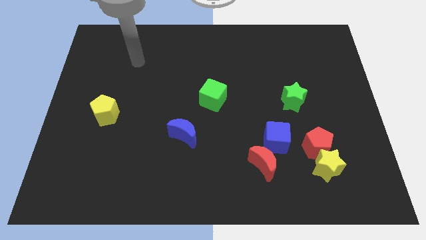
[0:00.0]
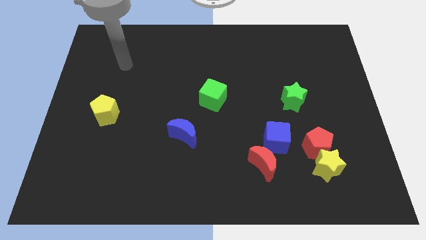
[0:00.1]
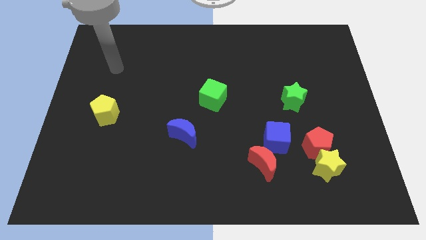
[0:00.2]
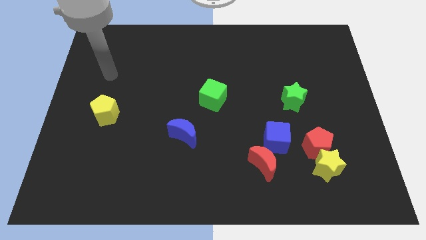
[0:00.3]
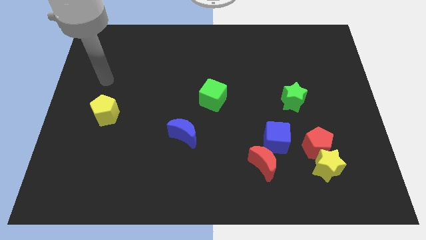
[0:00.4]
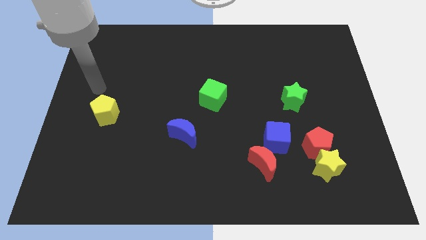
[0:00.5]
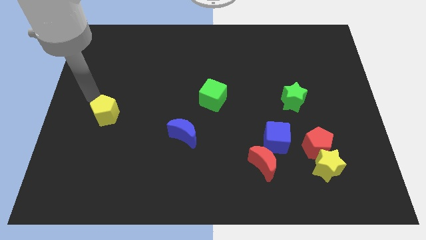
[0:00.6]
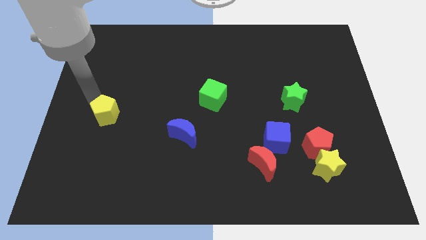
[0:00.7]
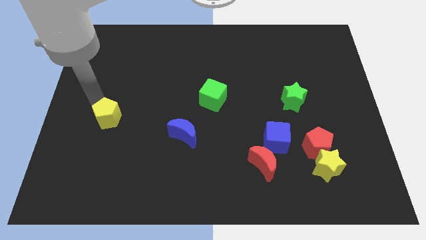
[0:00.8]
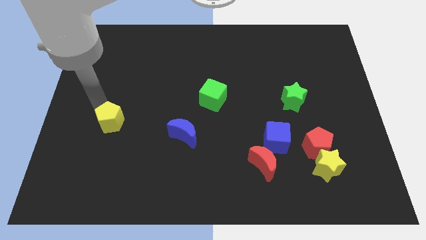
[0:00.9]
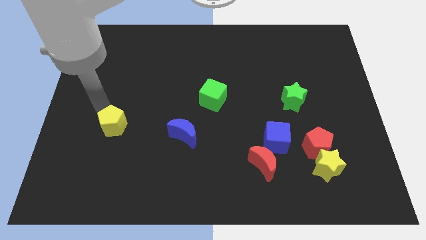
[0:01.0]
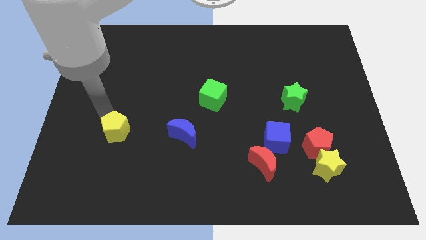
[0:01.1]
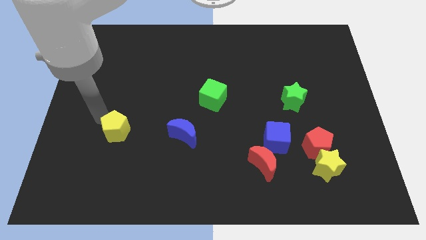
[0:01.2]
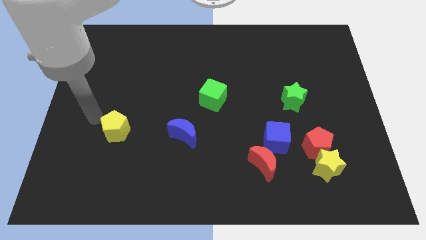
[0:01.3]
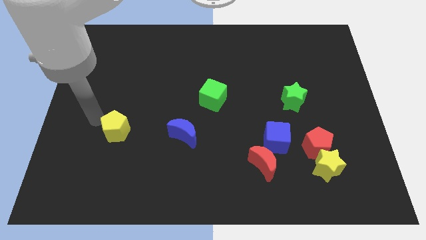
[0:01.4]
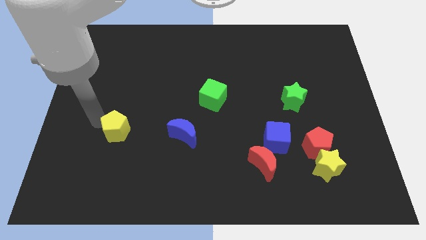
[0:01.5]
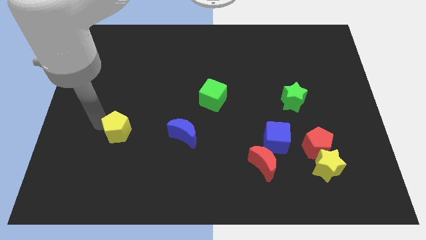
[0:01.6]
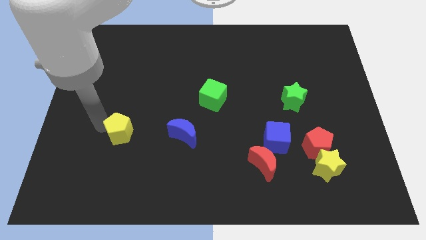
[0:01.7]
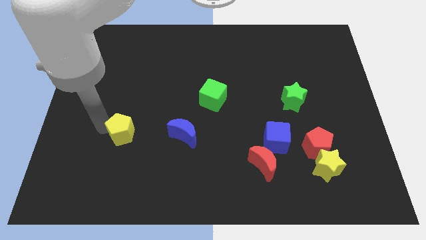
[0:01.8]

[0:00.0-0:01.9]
push the yellow pentagon downwards and to the right slightly

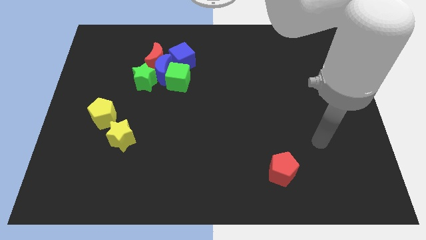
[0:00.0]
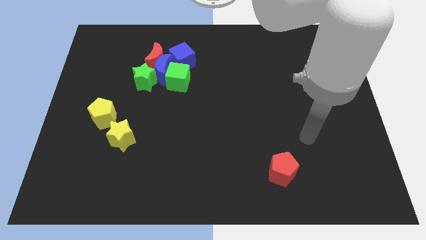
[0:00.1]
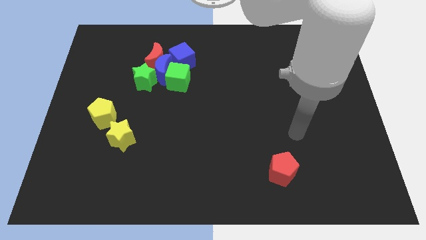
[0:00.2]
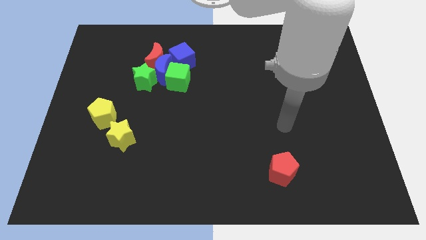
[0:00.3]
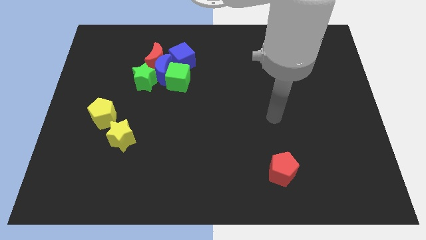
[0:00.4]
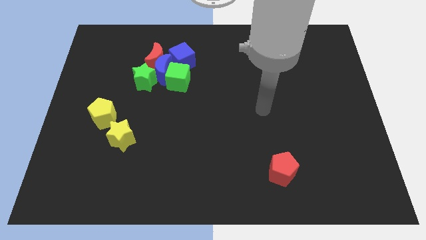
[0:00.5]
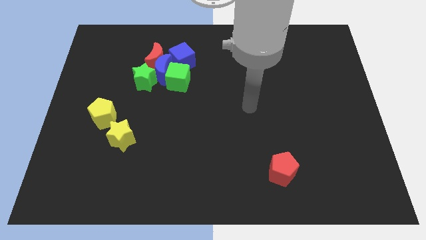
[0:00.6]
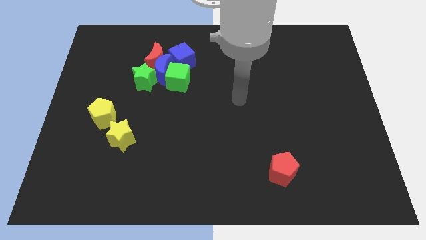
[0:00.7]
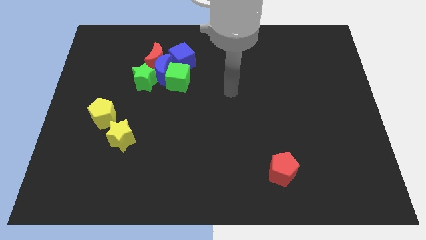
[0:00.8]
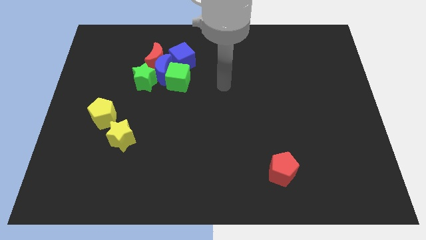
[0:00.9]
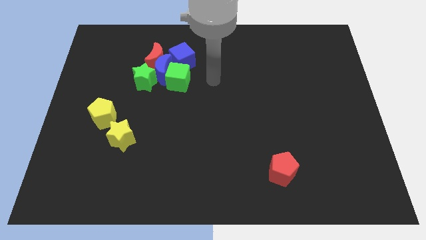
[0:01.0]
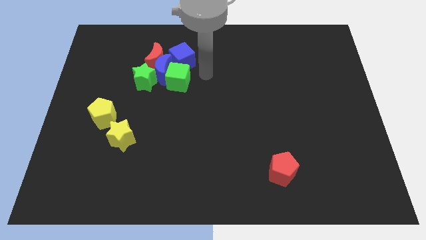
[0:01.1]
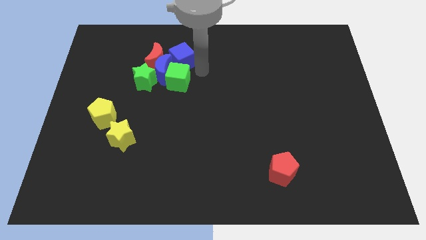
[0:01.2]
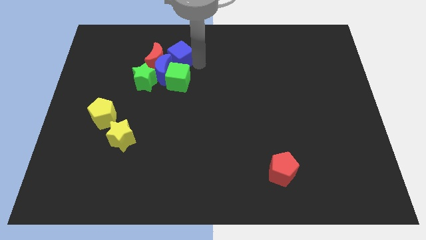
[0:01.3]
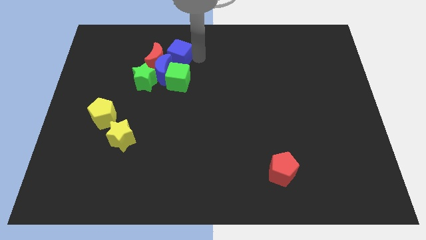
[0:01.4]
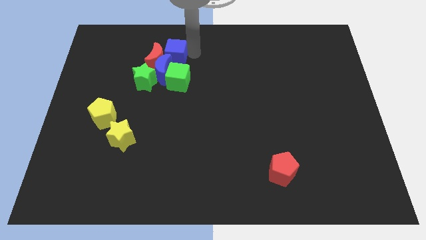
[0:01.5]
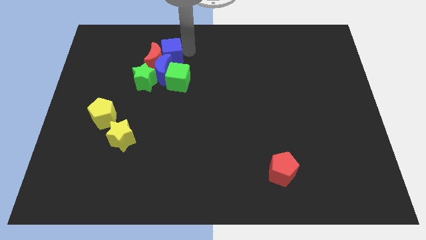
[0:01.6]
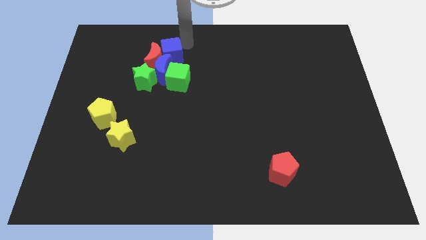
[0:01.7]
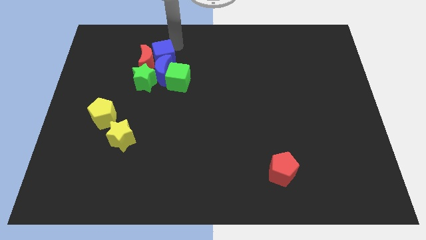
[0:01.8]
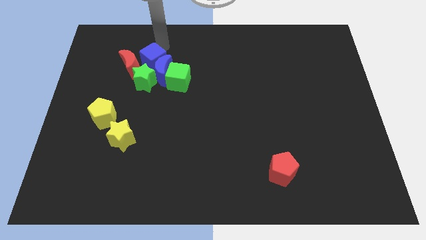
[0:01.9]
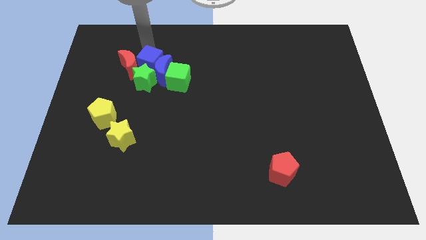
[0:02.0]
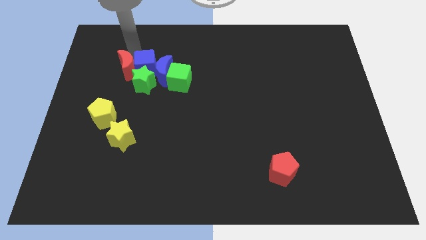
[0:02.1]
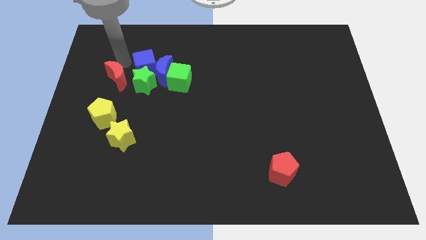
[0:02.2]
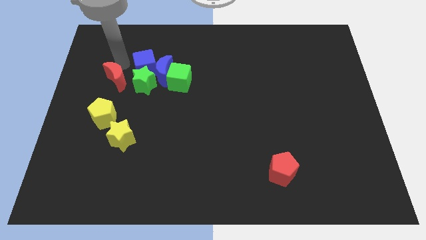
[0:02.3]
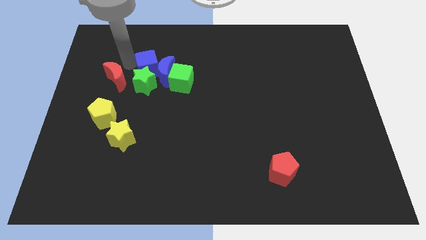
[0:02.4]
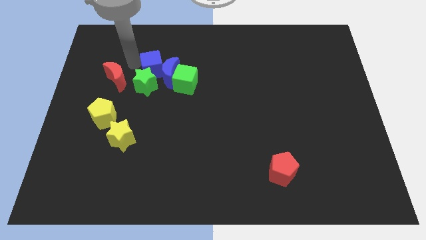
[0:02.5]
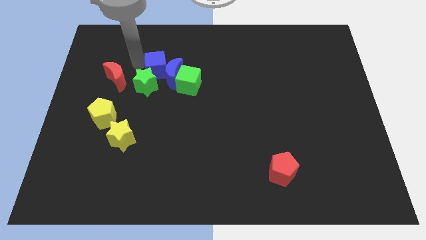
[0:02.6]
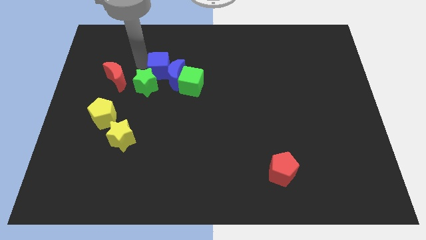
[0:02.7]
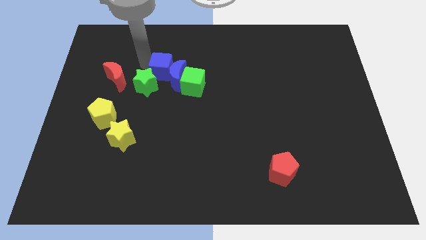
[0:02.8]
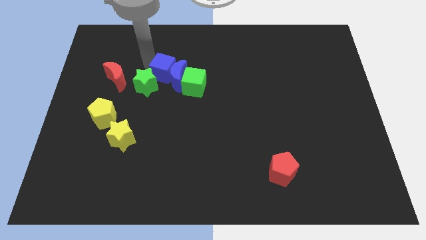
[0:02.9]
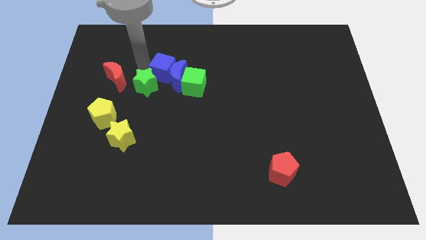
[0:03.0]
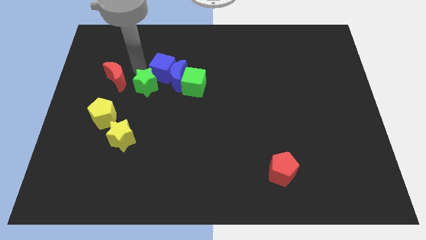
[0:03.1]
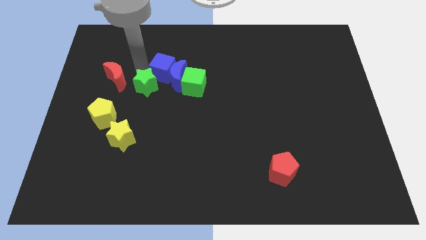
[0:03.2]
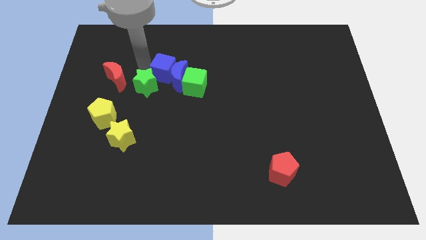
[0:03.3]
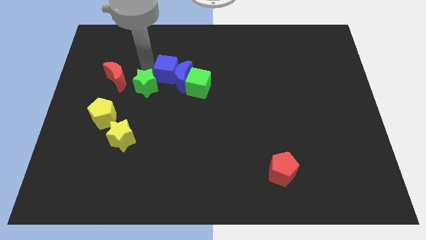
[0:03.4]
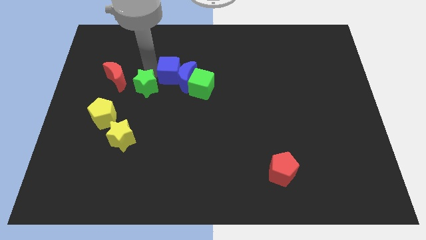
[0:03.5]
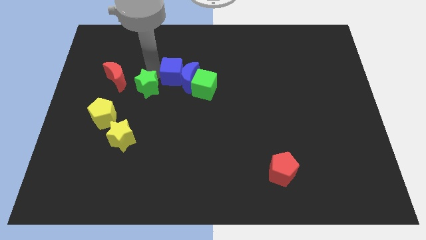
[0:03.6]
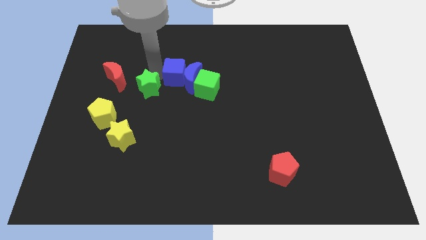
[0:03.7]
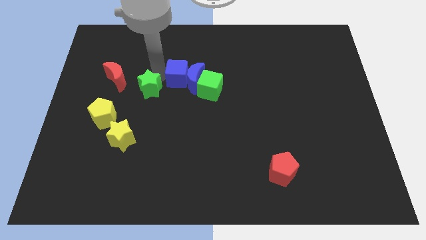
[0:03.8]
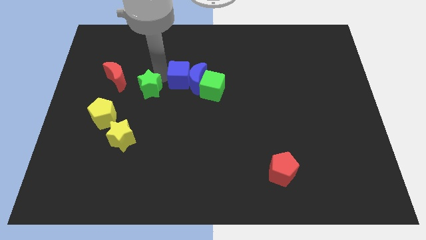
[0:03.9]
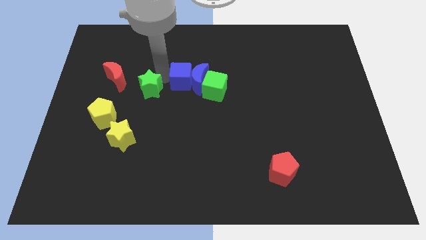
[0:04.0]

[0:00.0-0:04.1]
push the blue cube downwards slightly

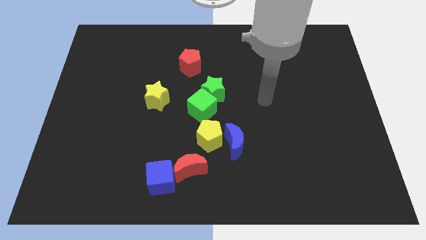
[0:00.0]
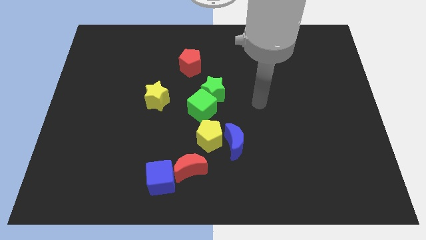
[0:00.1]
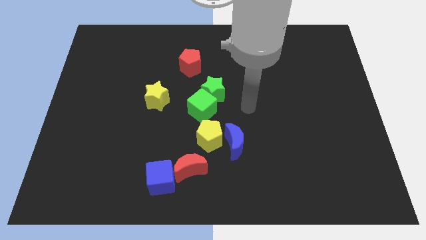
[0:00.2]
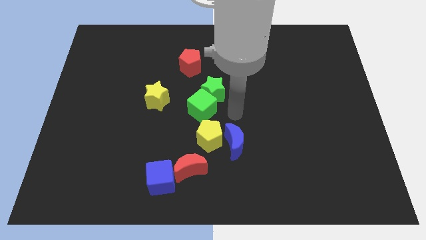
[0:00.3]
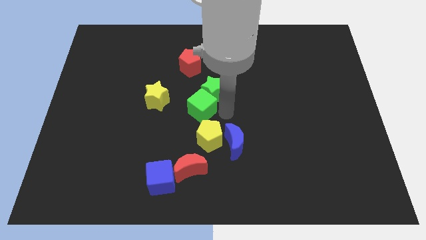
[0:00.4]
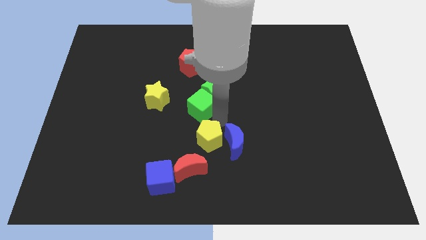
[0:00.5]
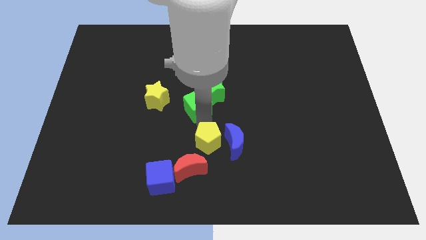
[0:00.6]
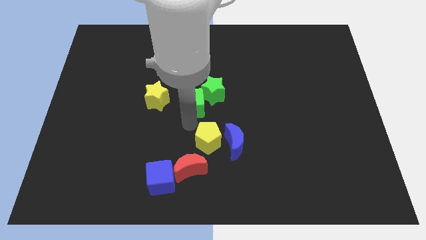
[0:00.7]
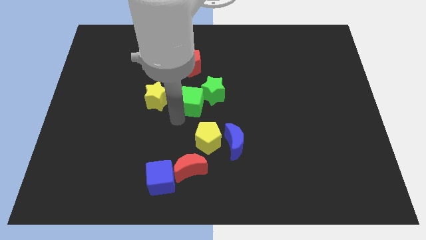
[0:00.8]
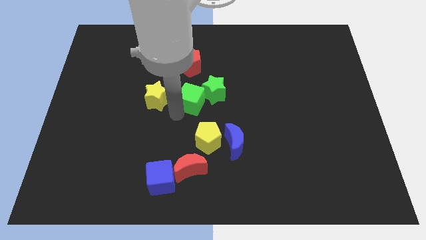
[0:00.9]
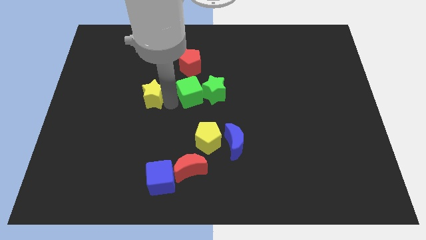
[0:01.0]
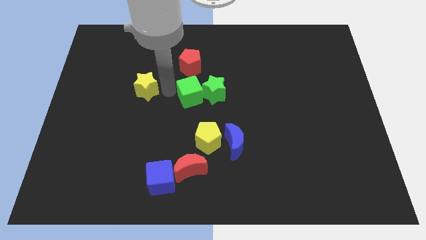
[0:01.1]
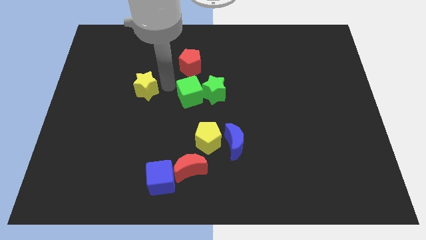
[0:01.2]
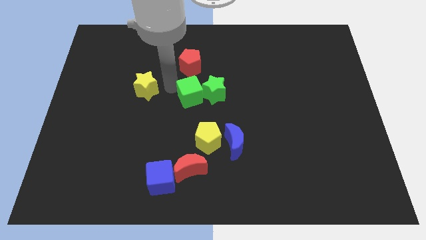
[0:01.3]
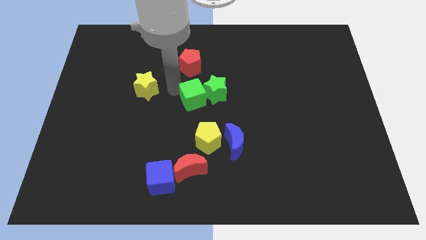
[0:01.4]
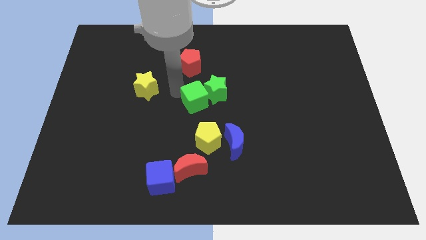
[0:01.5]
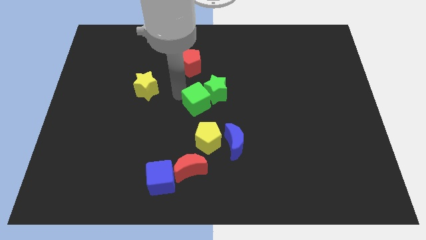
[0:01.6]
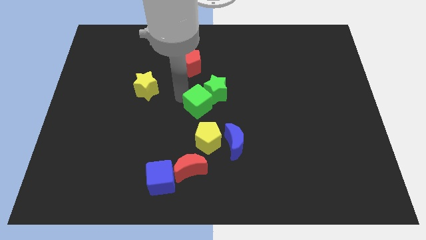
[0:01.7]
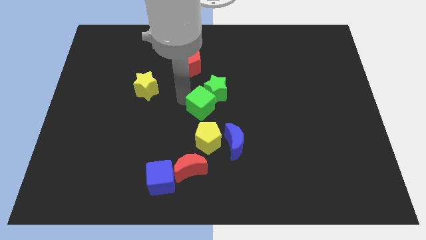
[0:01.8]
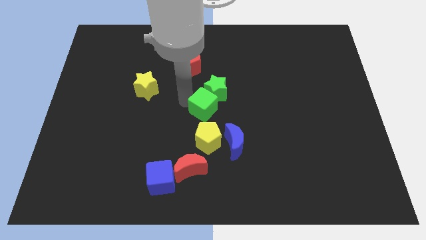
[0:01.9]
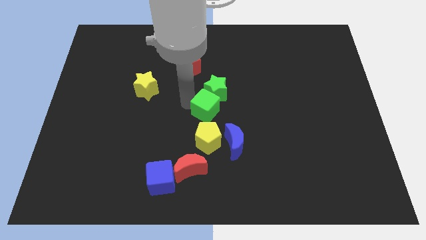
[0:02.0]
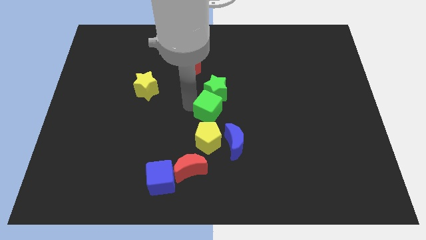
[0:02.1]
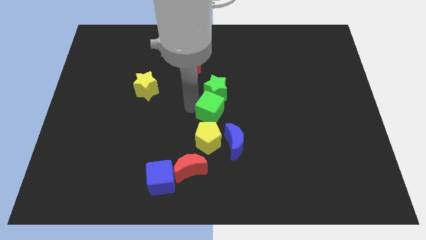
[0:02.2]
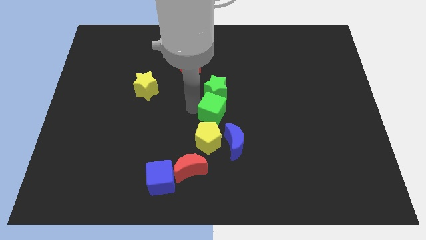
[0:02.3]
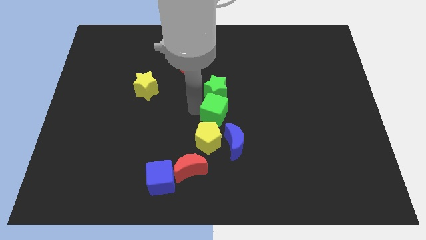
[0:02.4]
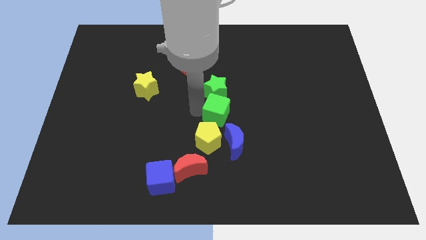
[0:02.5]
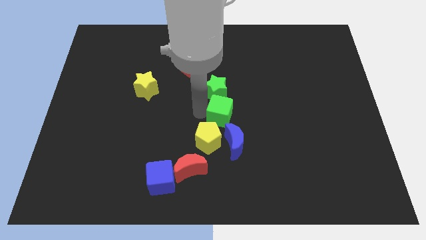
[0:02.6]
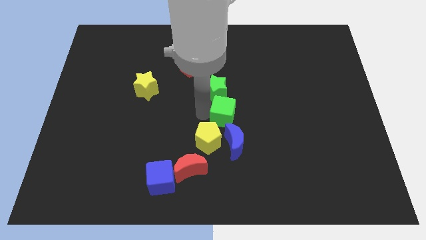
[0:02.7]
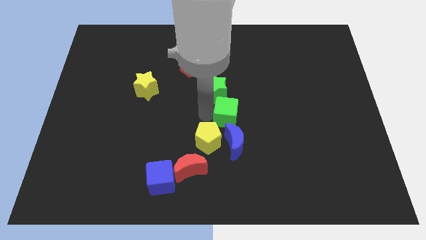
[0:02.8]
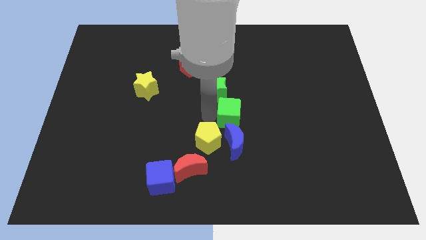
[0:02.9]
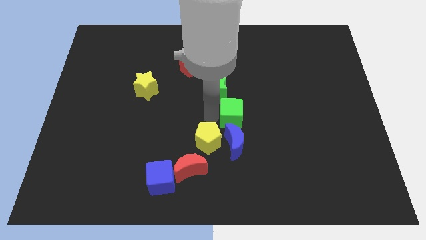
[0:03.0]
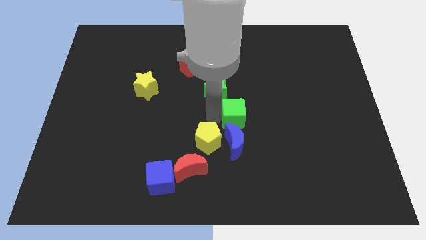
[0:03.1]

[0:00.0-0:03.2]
slightly push the green cube to the right
